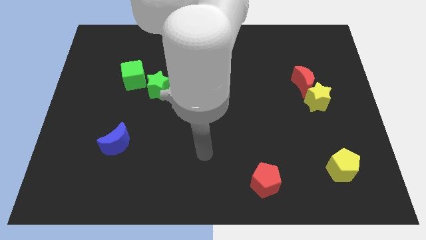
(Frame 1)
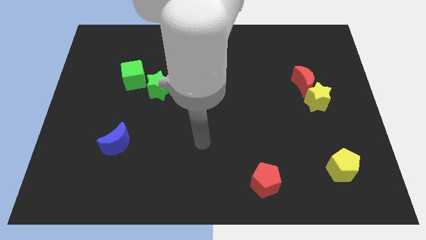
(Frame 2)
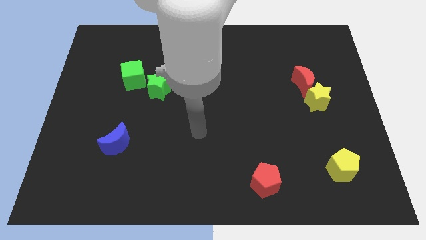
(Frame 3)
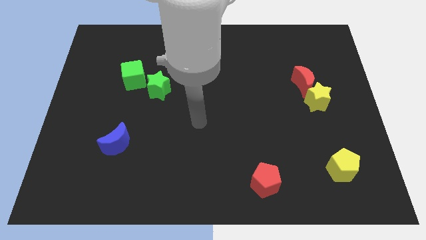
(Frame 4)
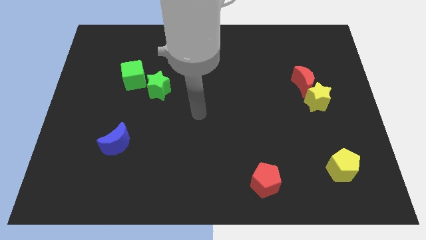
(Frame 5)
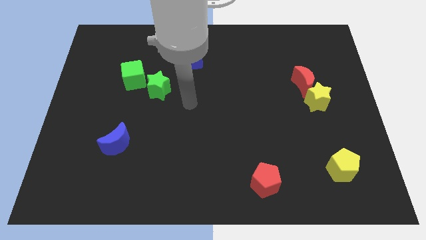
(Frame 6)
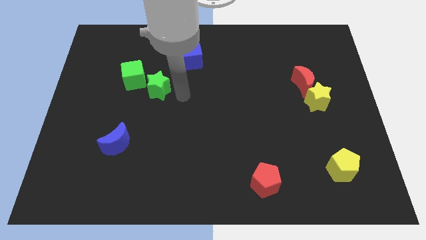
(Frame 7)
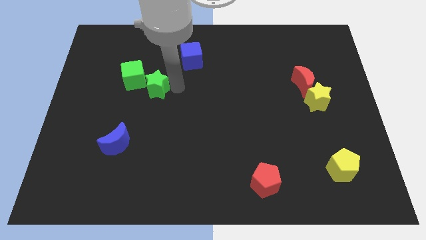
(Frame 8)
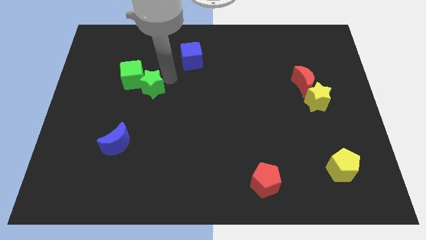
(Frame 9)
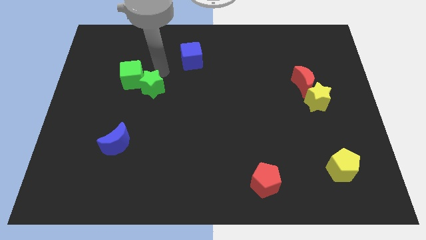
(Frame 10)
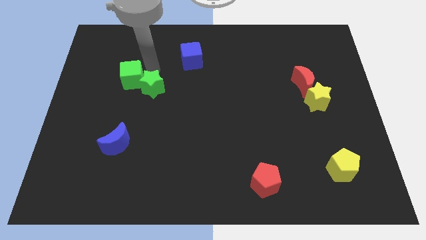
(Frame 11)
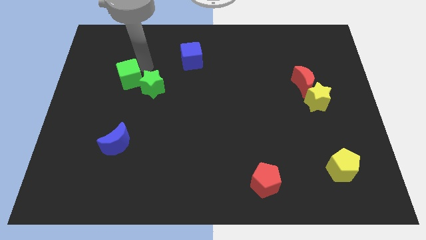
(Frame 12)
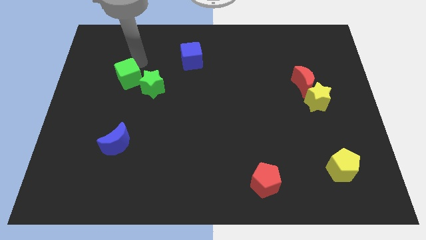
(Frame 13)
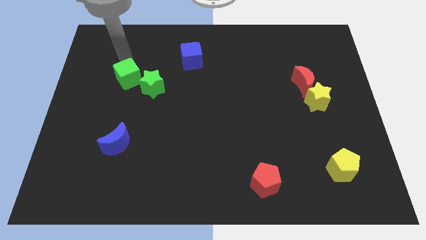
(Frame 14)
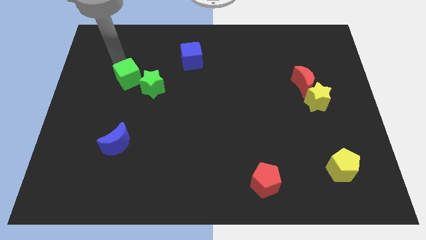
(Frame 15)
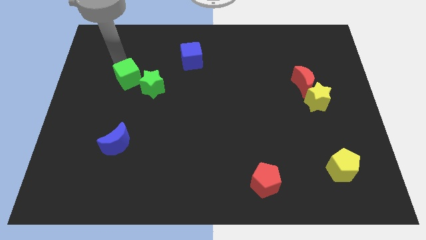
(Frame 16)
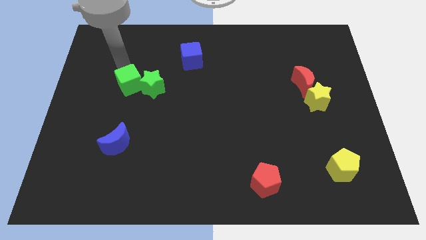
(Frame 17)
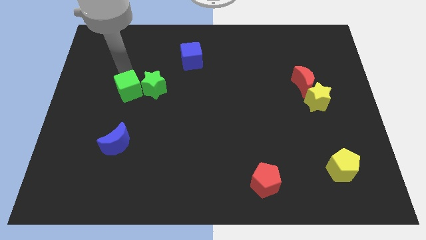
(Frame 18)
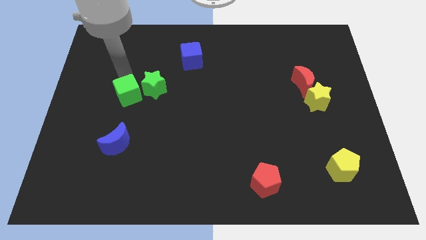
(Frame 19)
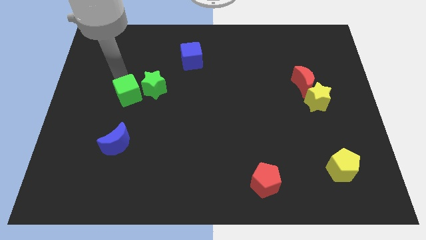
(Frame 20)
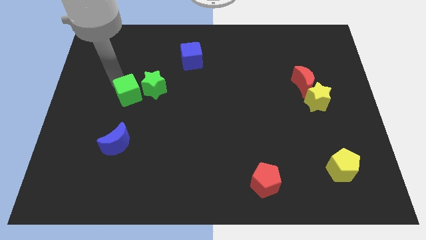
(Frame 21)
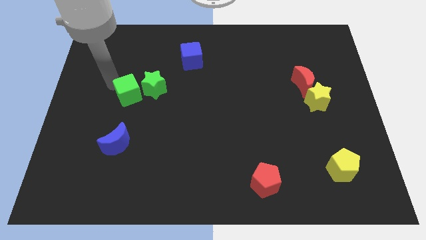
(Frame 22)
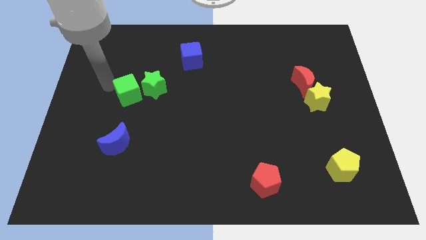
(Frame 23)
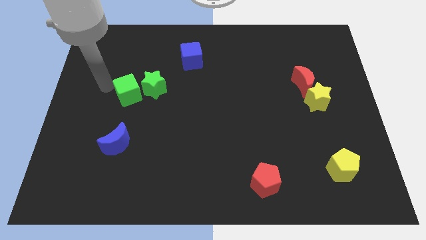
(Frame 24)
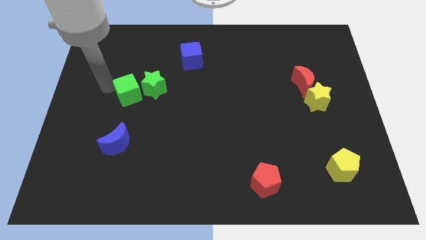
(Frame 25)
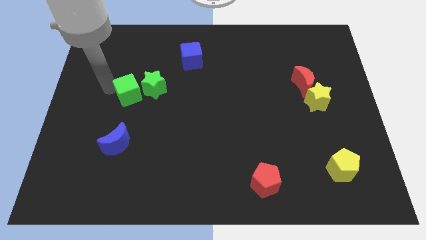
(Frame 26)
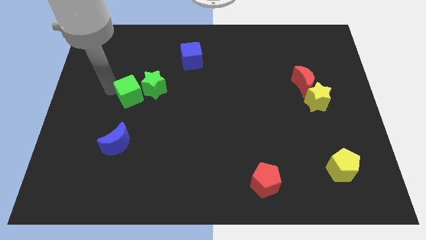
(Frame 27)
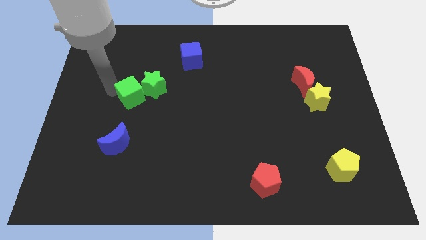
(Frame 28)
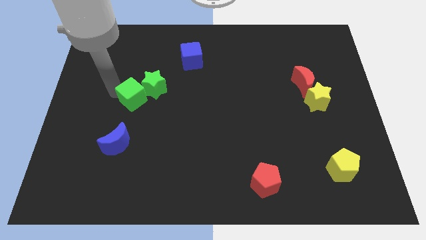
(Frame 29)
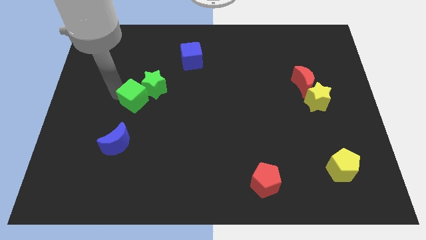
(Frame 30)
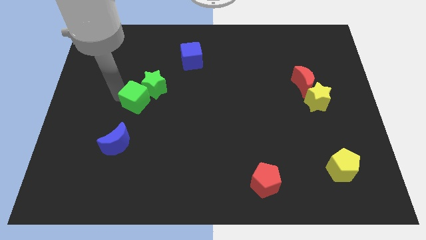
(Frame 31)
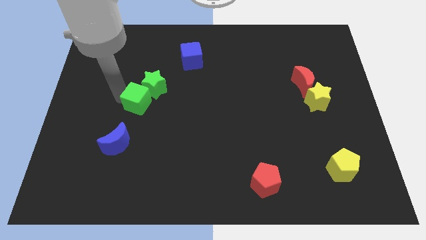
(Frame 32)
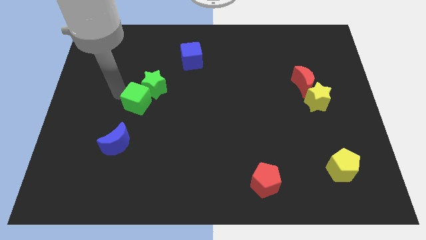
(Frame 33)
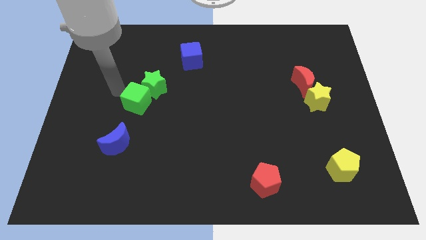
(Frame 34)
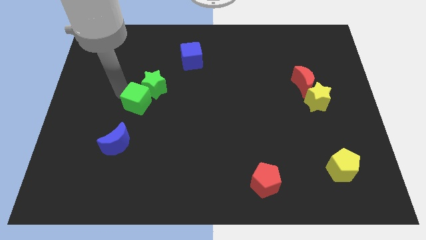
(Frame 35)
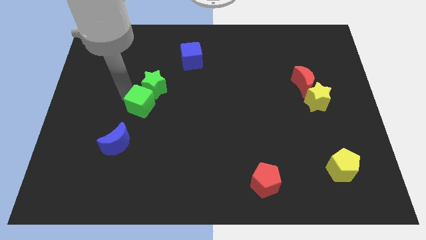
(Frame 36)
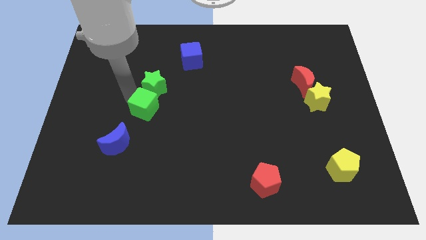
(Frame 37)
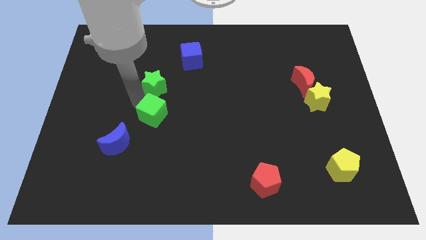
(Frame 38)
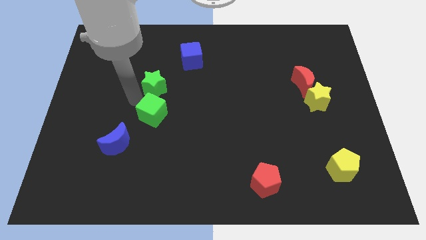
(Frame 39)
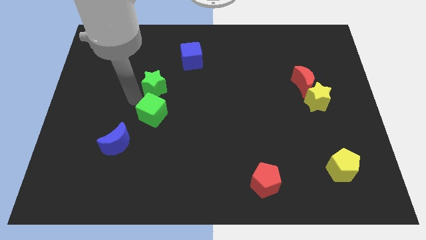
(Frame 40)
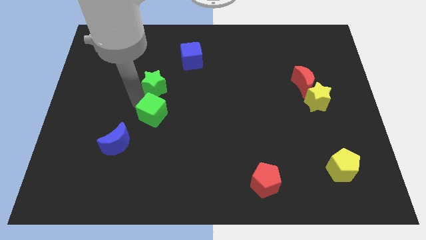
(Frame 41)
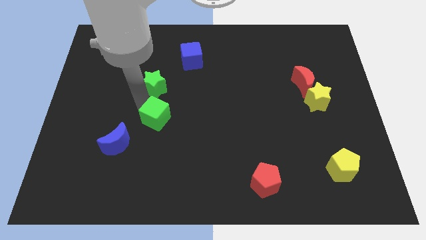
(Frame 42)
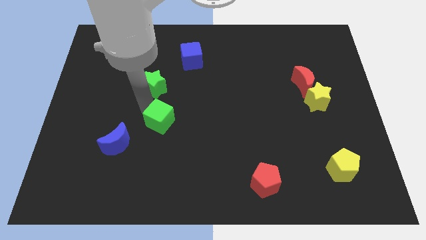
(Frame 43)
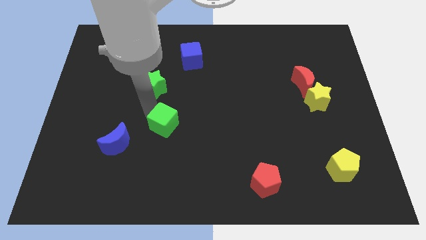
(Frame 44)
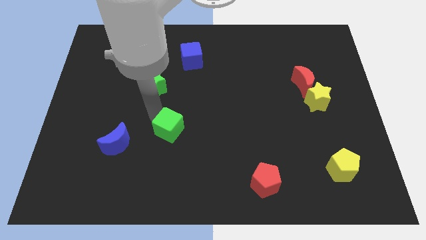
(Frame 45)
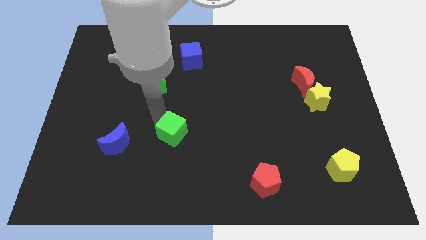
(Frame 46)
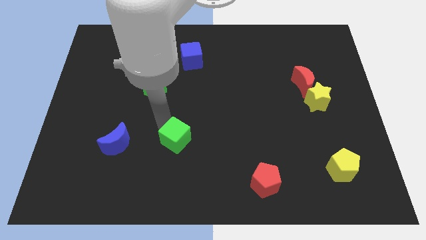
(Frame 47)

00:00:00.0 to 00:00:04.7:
move the green cube diagonally downwards and to the right

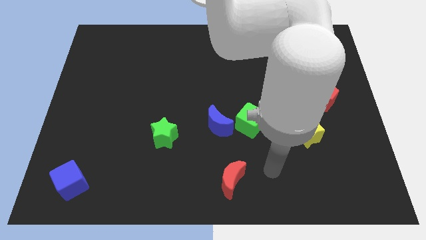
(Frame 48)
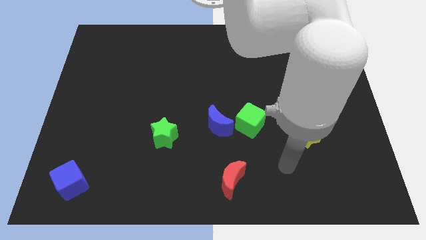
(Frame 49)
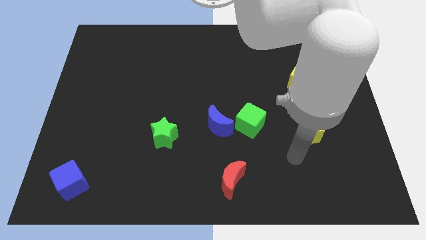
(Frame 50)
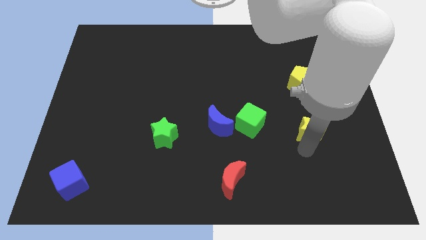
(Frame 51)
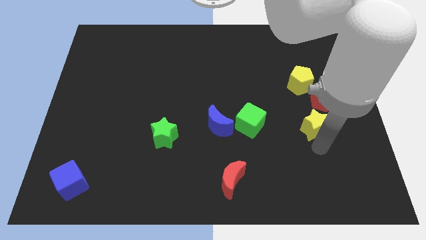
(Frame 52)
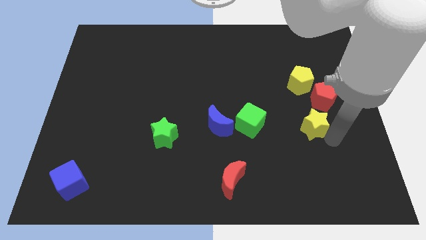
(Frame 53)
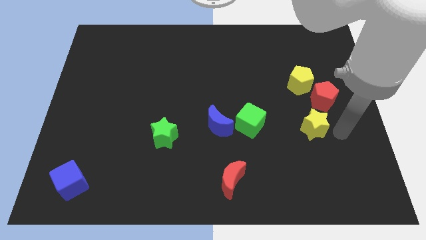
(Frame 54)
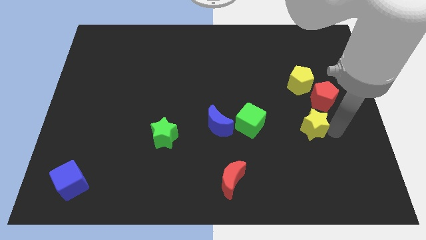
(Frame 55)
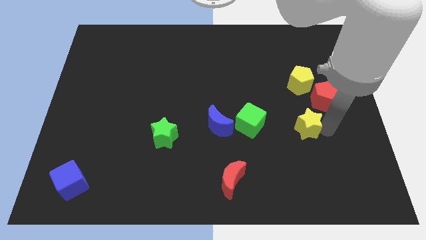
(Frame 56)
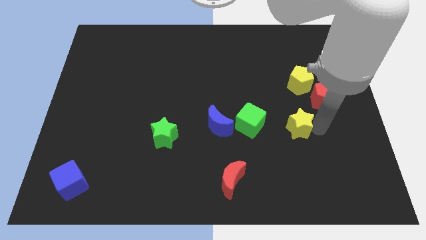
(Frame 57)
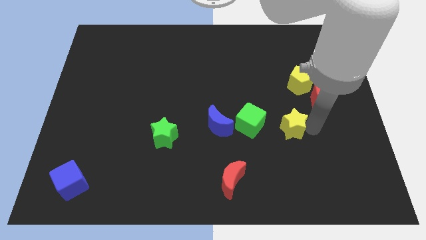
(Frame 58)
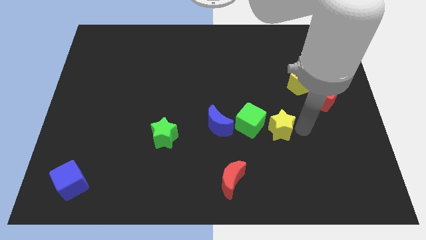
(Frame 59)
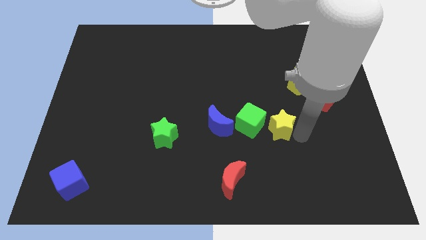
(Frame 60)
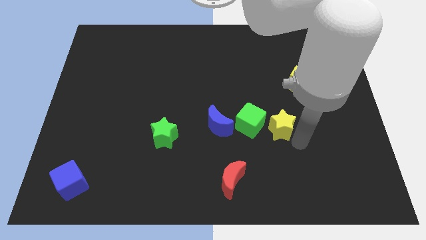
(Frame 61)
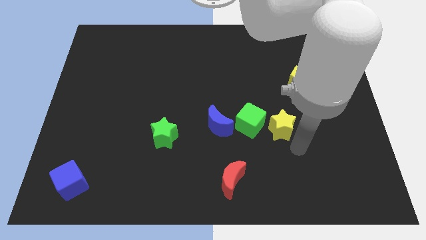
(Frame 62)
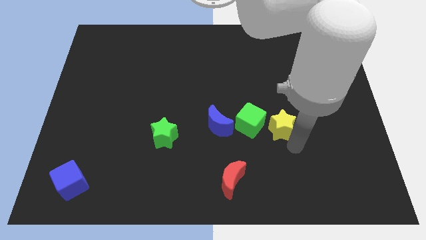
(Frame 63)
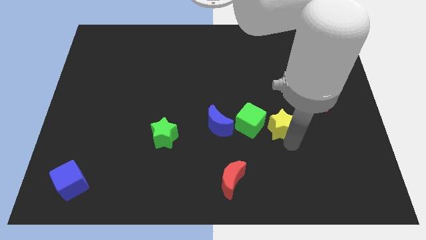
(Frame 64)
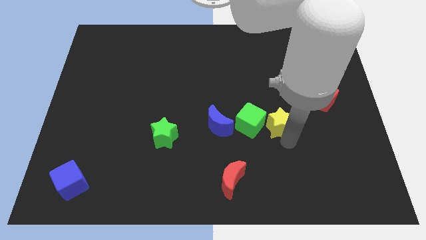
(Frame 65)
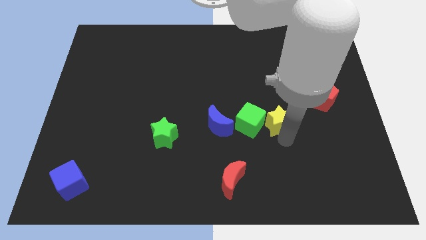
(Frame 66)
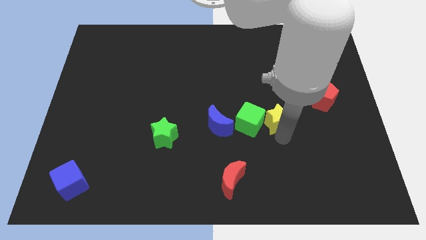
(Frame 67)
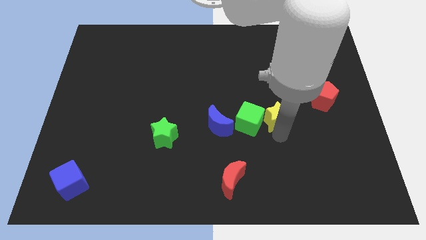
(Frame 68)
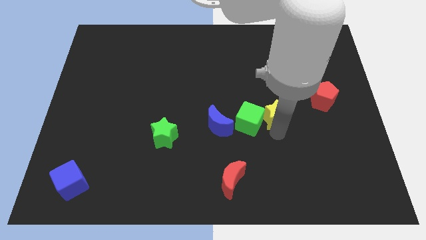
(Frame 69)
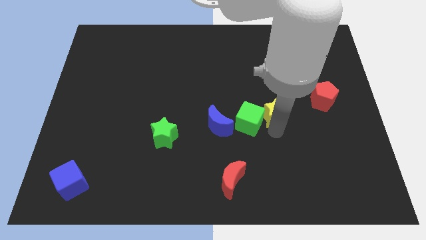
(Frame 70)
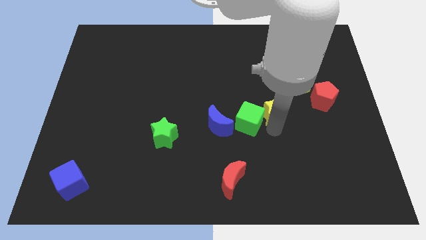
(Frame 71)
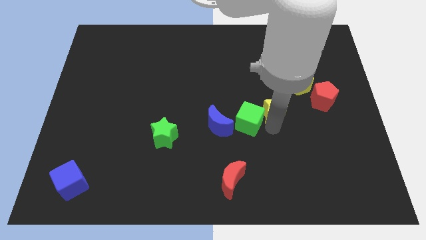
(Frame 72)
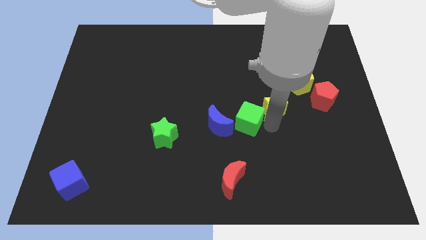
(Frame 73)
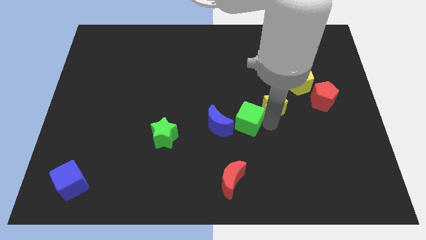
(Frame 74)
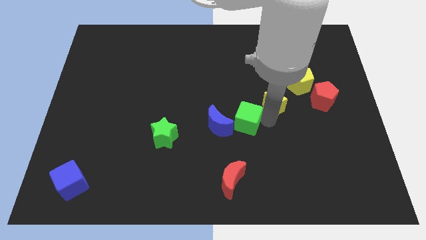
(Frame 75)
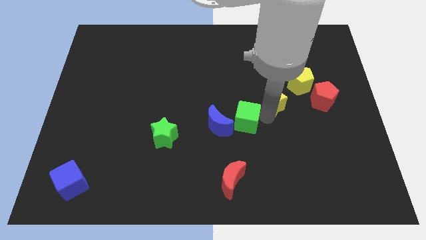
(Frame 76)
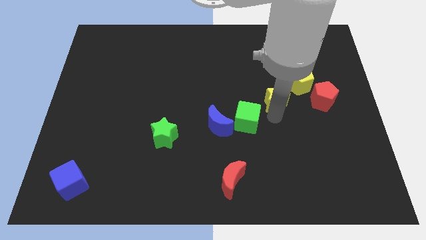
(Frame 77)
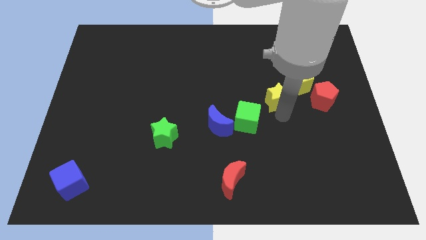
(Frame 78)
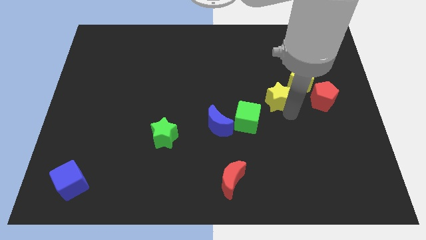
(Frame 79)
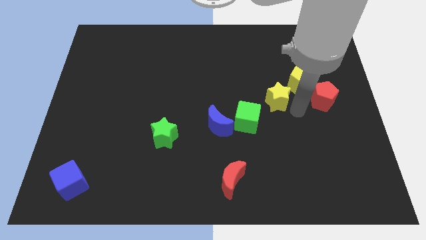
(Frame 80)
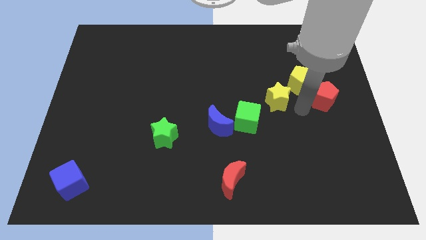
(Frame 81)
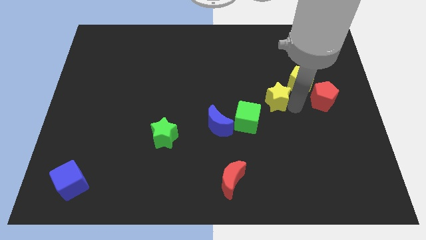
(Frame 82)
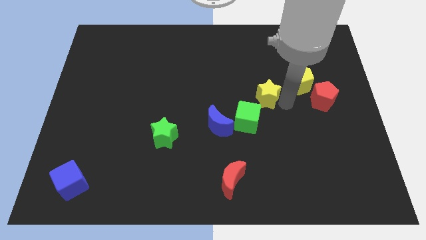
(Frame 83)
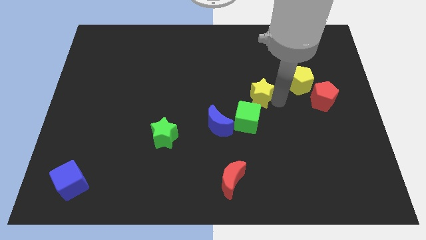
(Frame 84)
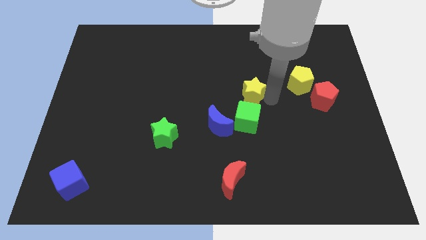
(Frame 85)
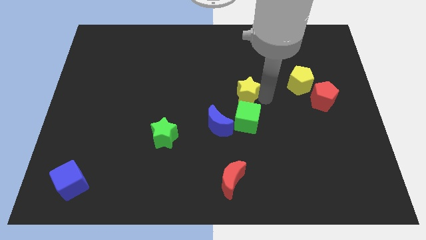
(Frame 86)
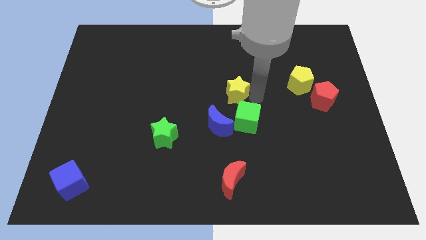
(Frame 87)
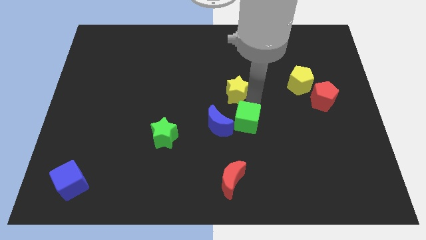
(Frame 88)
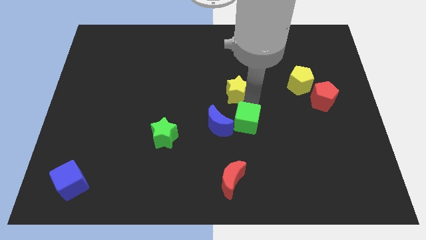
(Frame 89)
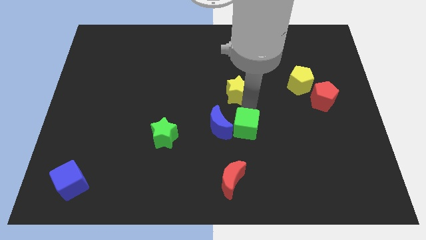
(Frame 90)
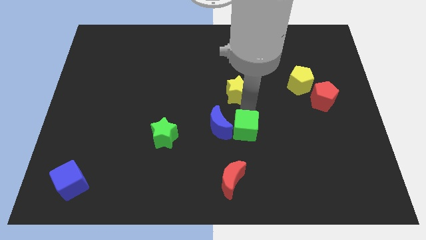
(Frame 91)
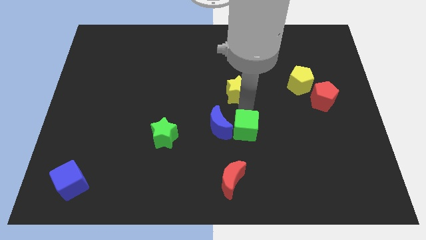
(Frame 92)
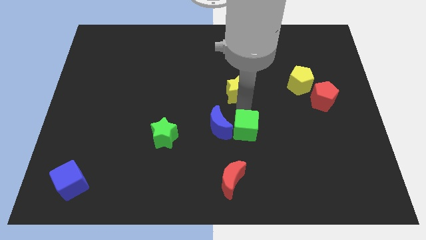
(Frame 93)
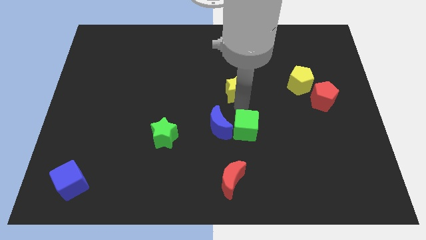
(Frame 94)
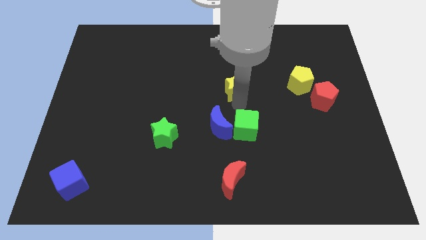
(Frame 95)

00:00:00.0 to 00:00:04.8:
slide the yellow star diagonally up and left
